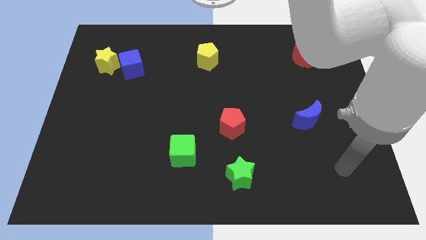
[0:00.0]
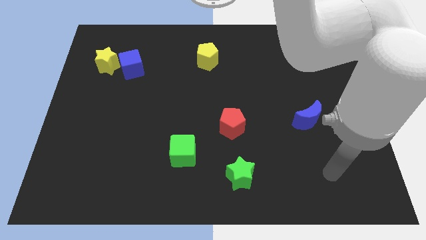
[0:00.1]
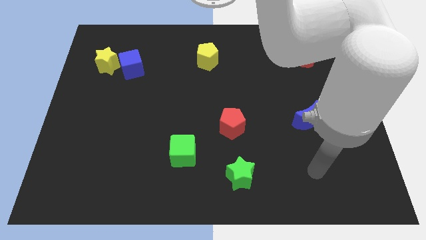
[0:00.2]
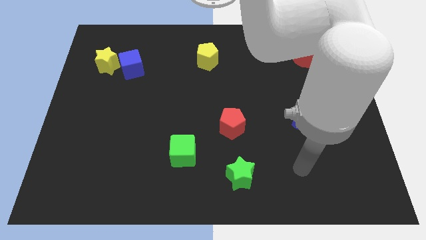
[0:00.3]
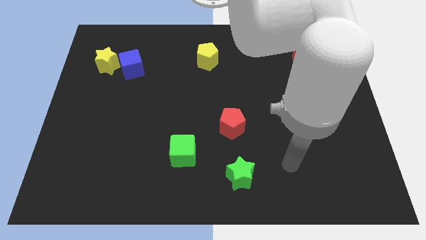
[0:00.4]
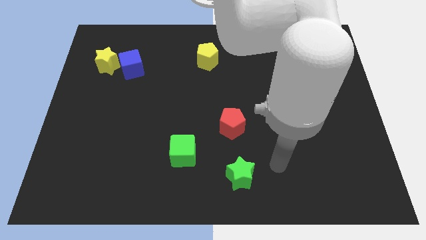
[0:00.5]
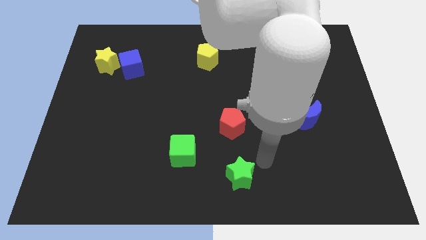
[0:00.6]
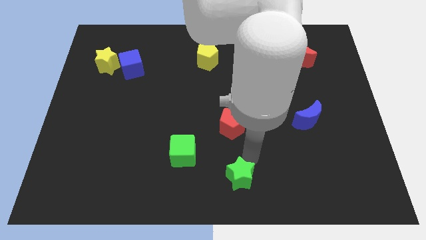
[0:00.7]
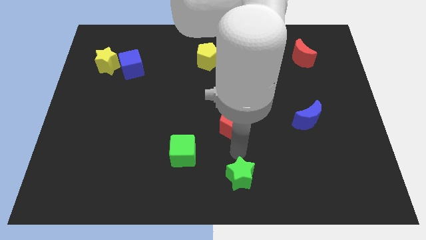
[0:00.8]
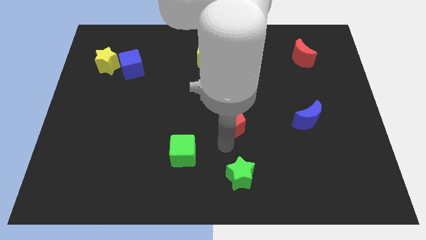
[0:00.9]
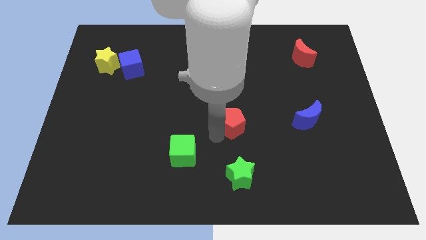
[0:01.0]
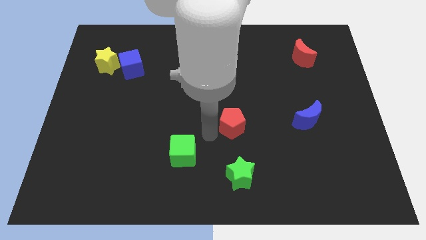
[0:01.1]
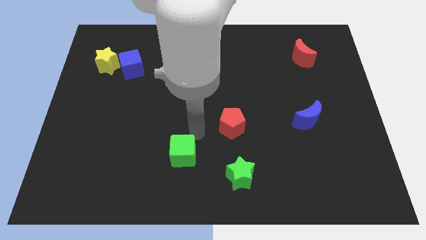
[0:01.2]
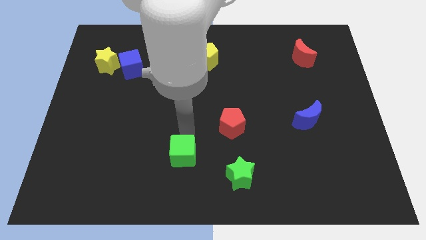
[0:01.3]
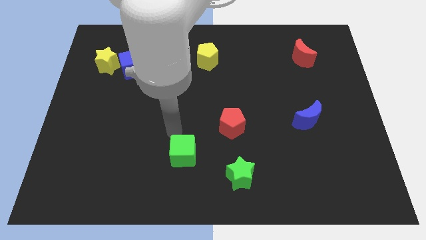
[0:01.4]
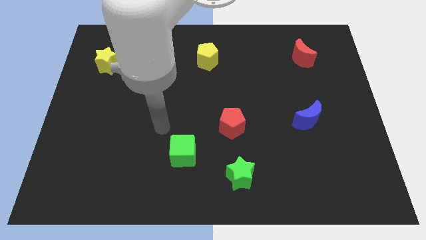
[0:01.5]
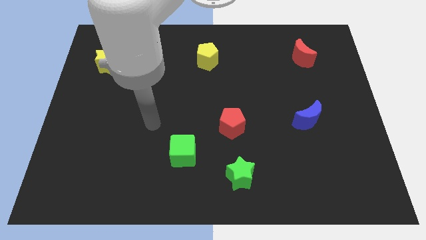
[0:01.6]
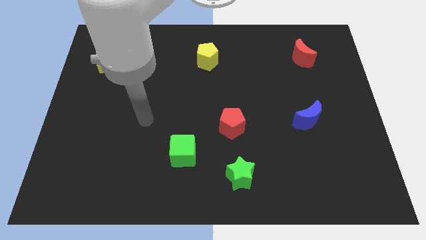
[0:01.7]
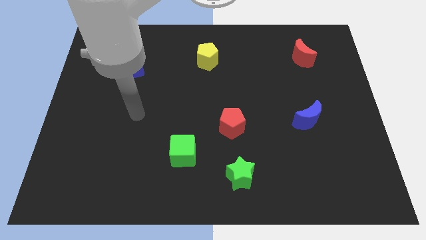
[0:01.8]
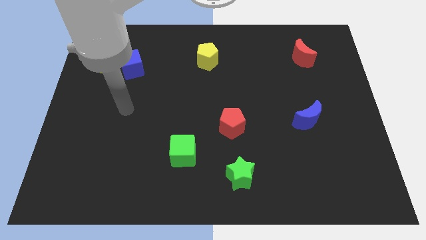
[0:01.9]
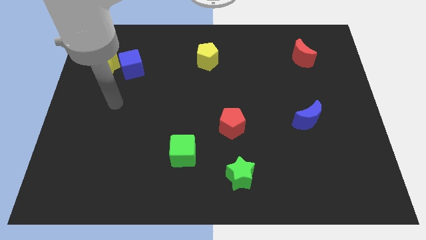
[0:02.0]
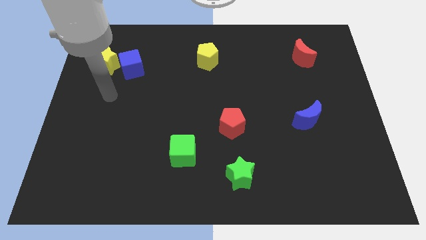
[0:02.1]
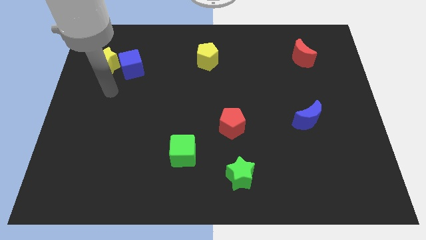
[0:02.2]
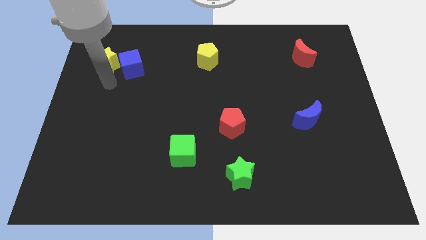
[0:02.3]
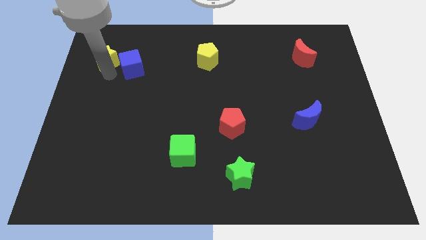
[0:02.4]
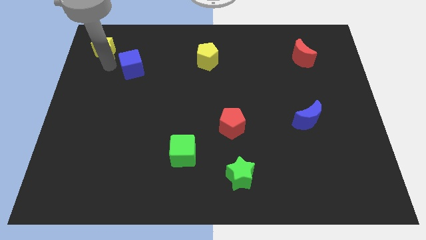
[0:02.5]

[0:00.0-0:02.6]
pull the blue cube apart from the yellow star

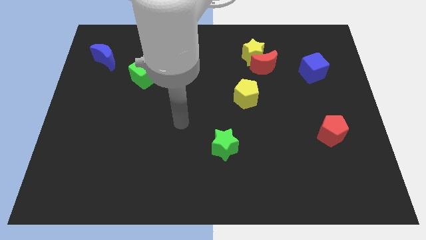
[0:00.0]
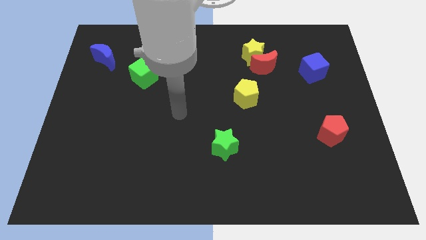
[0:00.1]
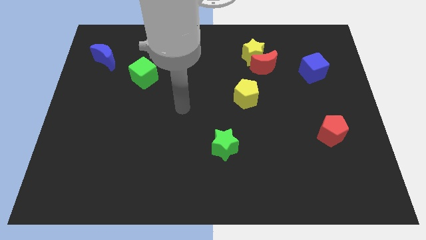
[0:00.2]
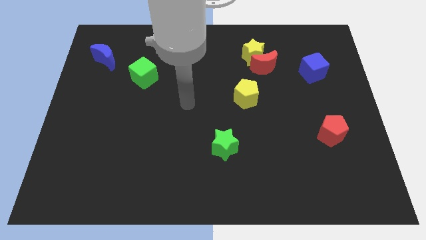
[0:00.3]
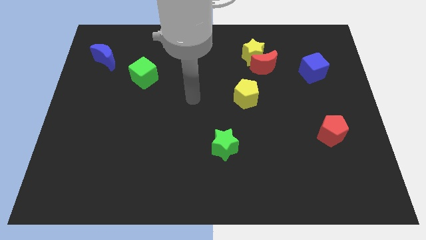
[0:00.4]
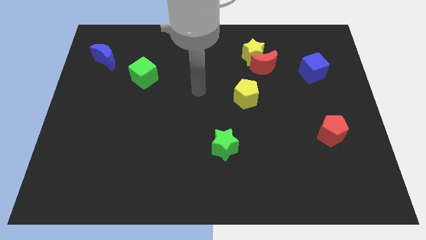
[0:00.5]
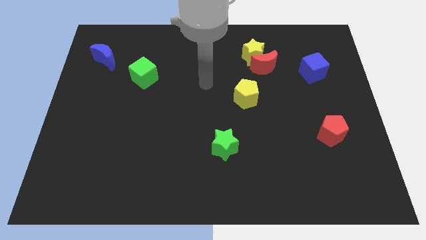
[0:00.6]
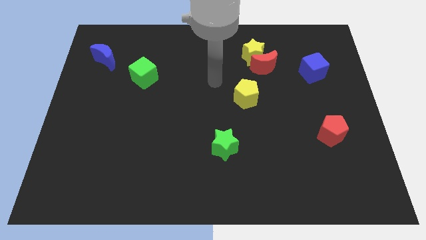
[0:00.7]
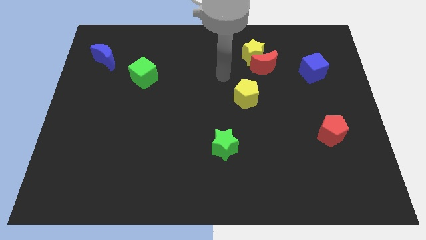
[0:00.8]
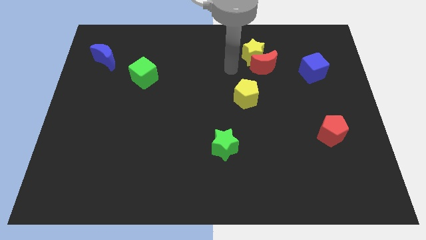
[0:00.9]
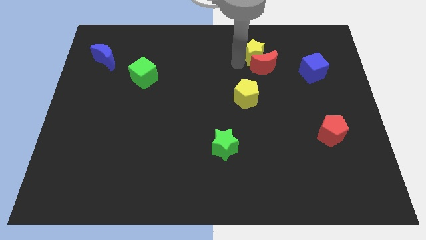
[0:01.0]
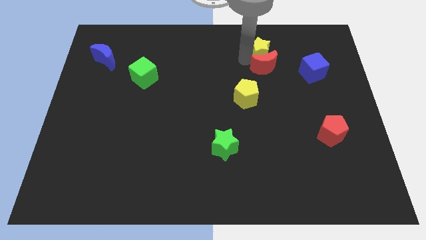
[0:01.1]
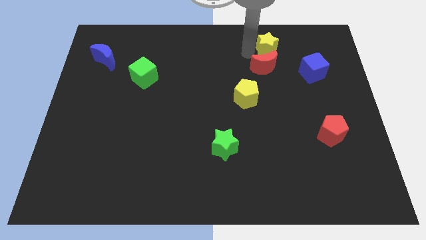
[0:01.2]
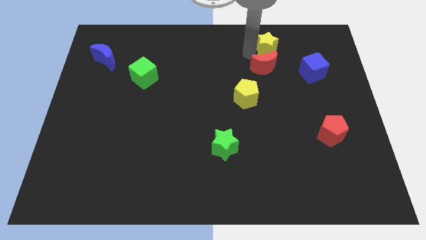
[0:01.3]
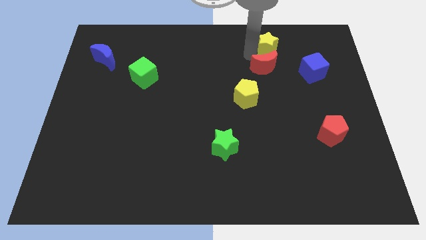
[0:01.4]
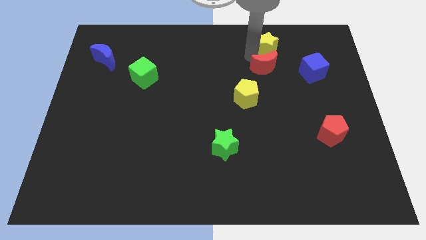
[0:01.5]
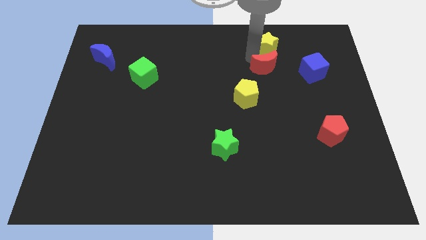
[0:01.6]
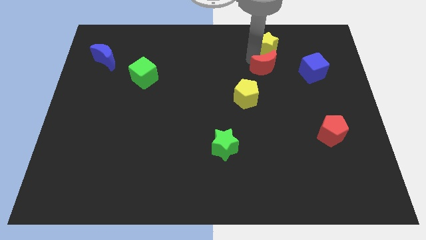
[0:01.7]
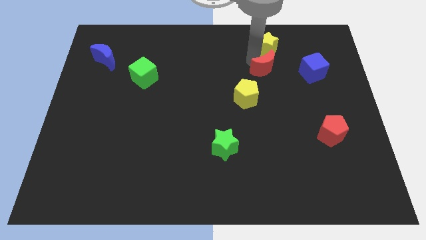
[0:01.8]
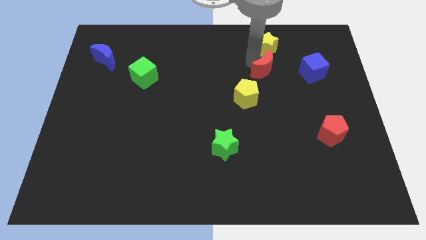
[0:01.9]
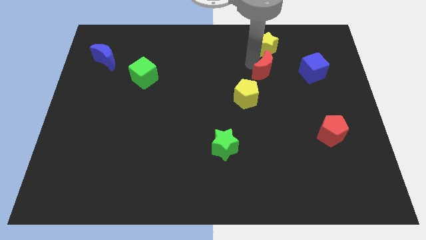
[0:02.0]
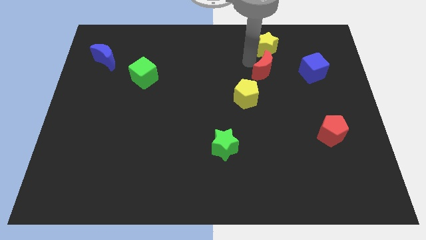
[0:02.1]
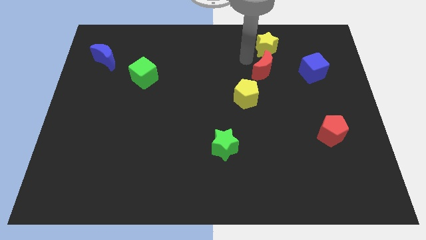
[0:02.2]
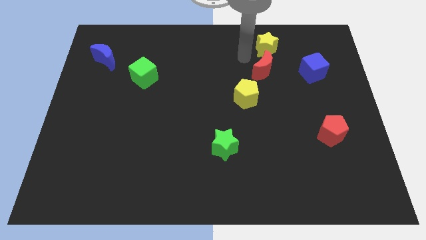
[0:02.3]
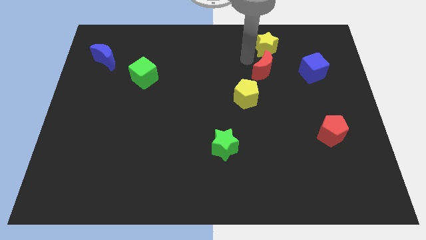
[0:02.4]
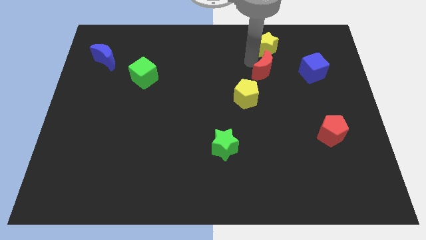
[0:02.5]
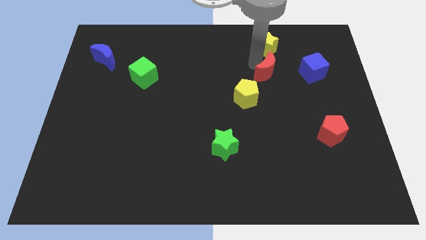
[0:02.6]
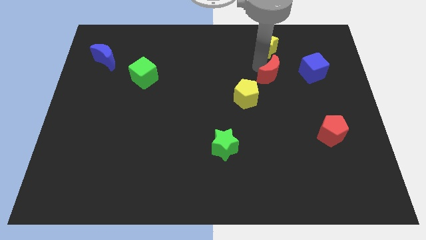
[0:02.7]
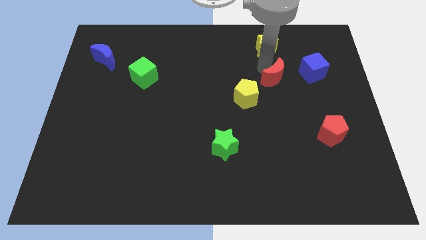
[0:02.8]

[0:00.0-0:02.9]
move the red moon away from the yellow star

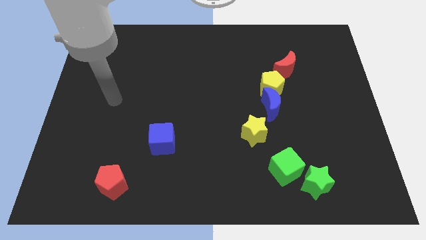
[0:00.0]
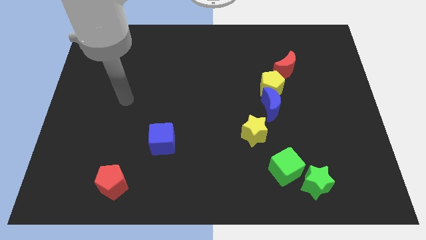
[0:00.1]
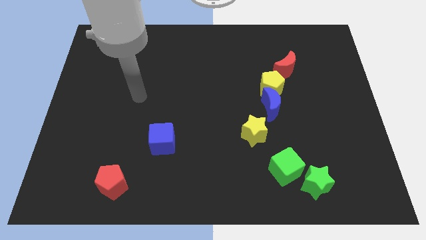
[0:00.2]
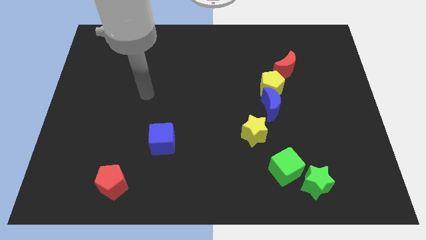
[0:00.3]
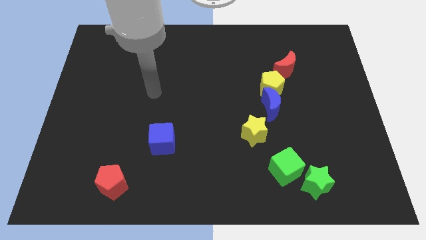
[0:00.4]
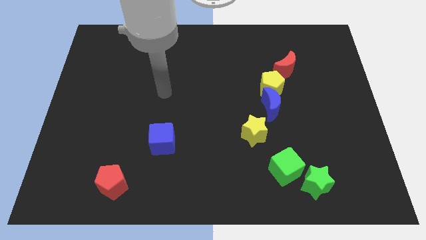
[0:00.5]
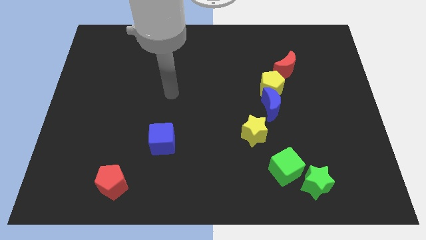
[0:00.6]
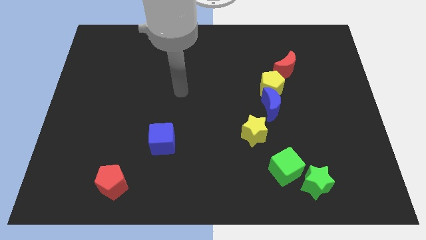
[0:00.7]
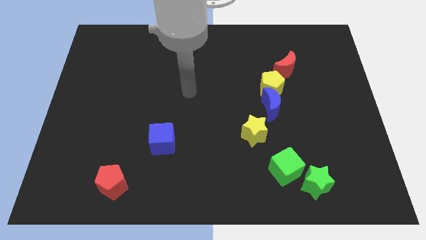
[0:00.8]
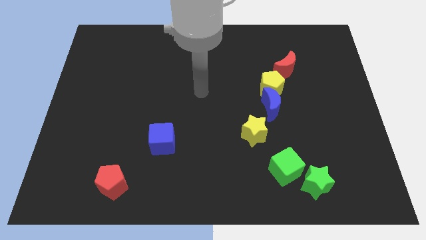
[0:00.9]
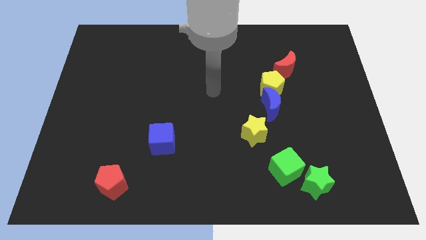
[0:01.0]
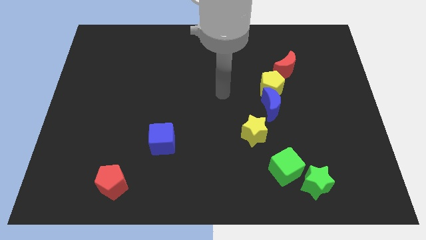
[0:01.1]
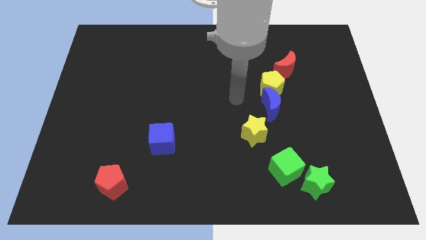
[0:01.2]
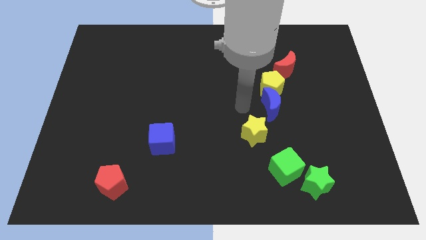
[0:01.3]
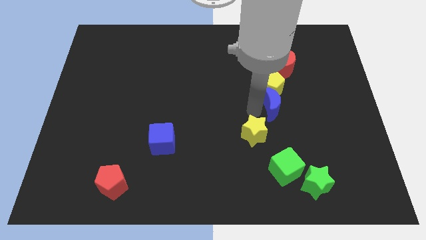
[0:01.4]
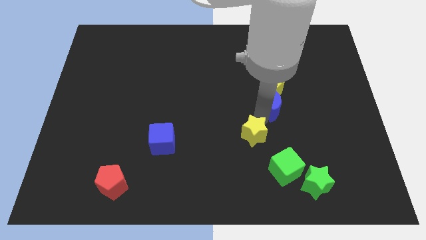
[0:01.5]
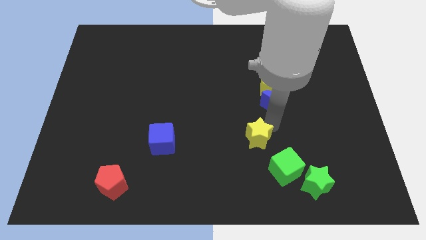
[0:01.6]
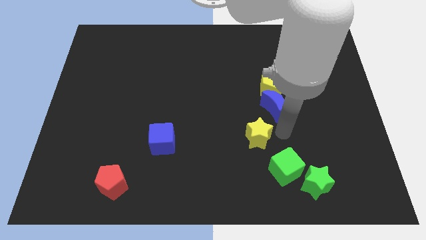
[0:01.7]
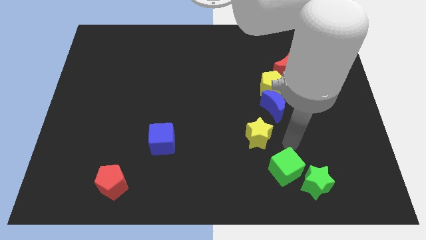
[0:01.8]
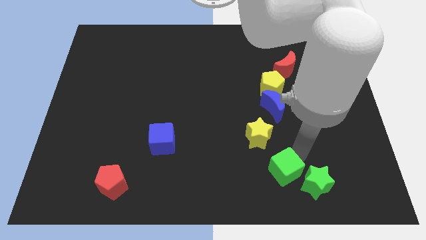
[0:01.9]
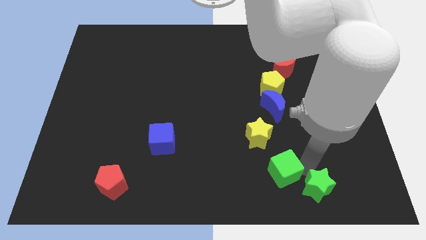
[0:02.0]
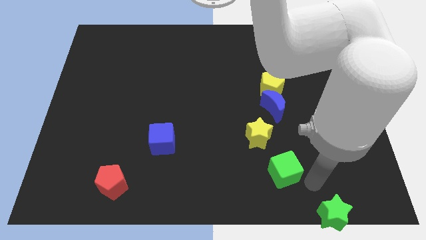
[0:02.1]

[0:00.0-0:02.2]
separate the green cube from the green star

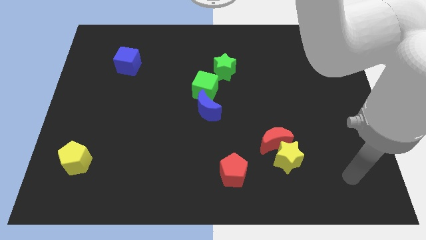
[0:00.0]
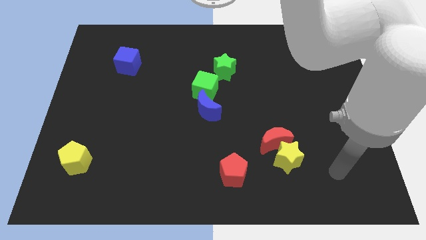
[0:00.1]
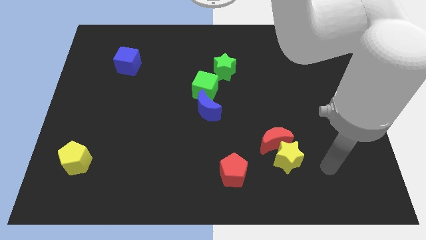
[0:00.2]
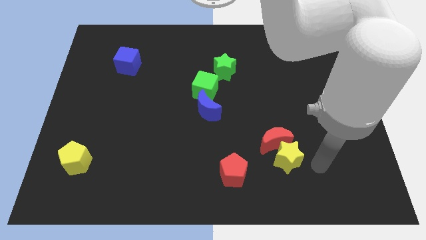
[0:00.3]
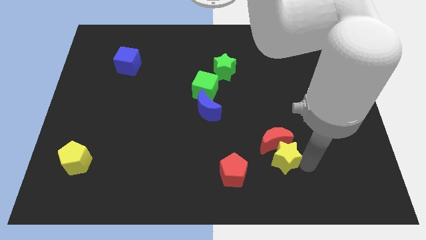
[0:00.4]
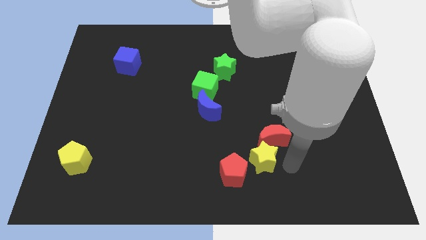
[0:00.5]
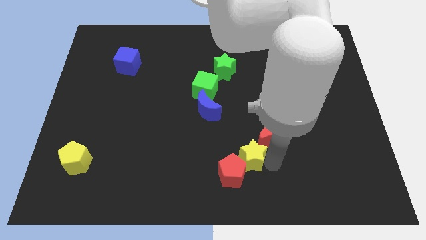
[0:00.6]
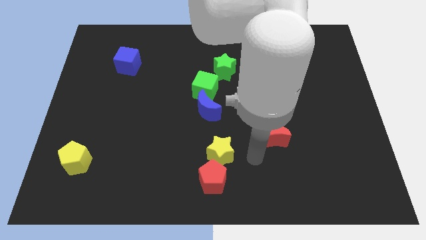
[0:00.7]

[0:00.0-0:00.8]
pull the red moon apart from the yellow star

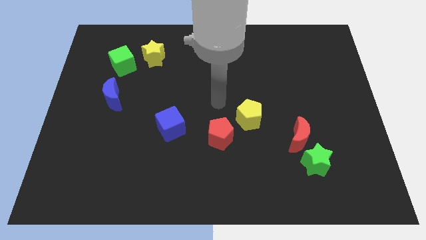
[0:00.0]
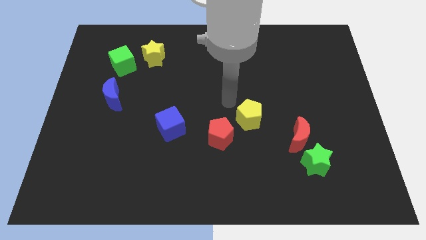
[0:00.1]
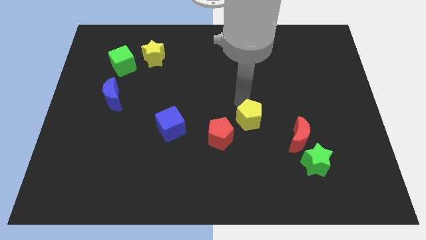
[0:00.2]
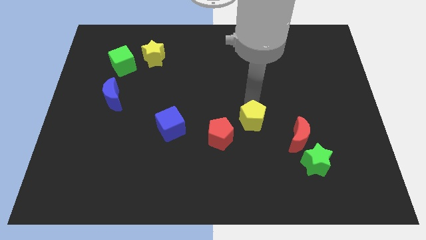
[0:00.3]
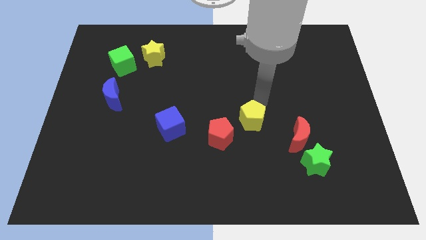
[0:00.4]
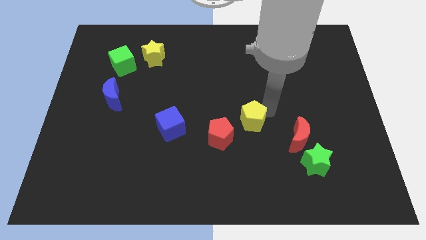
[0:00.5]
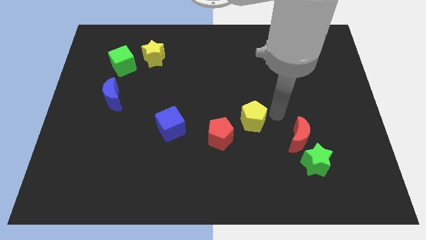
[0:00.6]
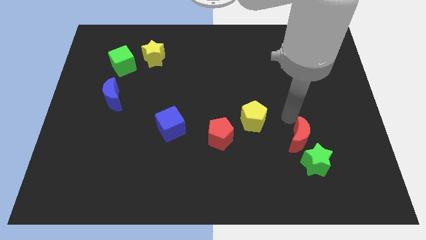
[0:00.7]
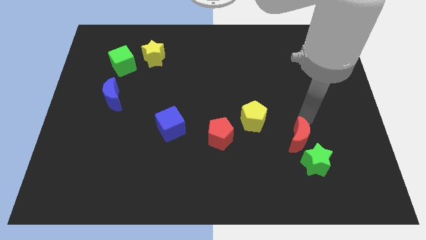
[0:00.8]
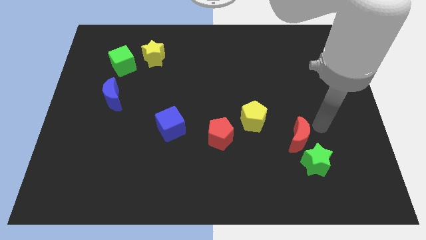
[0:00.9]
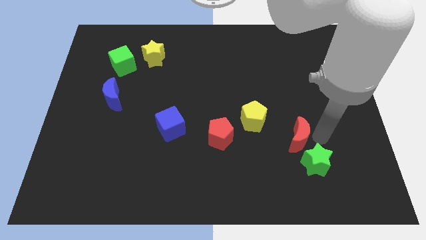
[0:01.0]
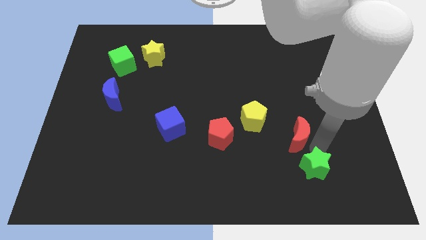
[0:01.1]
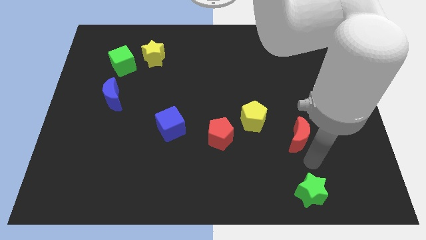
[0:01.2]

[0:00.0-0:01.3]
move the red moon away from the green star
